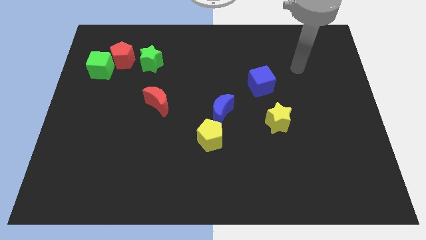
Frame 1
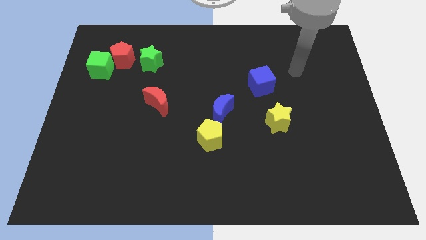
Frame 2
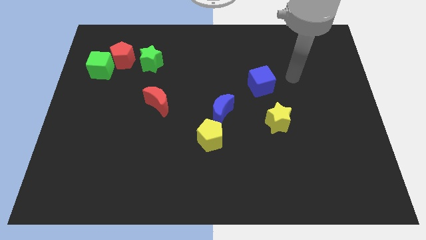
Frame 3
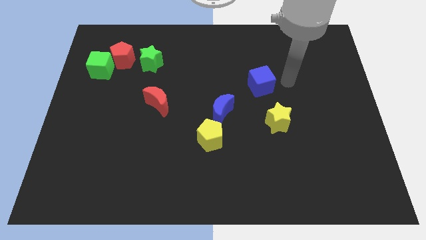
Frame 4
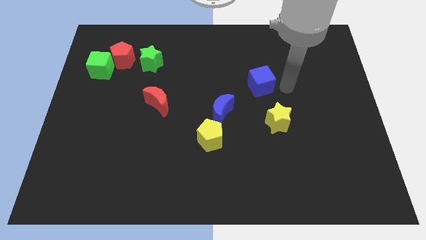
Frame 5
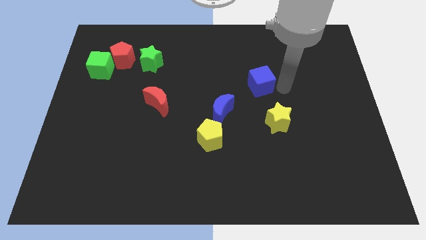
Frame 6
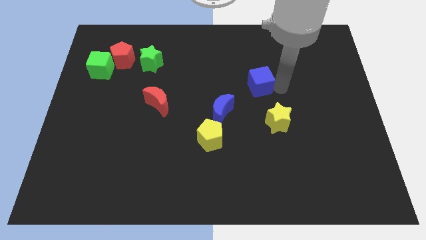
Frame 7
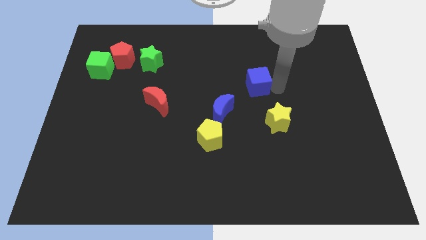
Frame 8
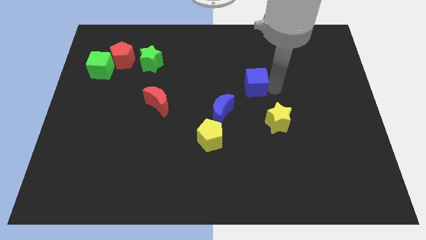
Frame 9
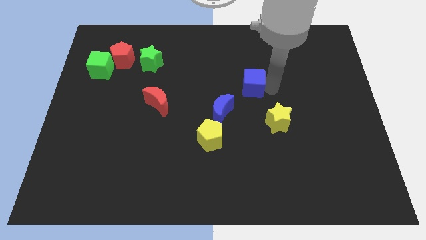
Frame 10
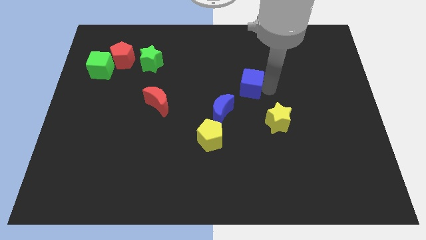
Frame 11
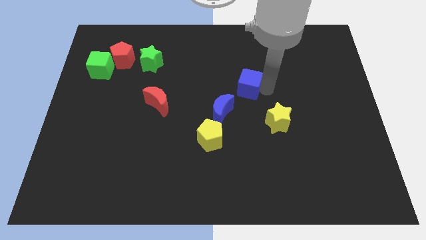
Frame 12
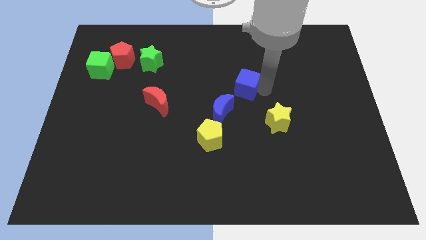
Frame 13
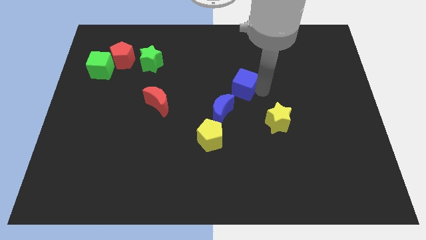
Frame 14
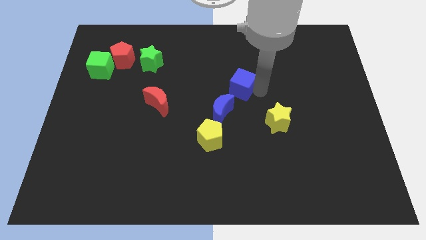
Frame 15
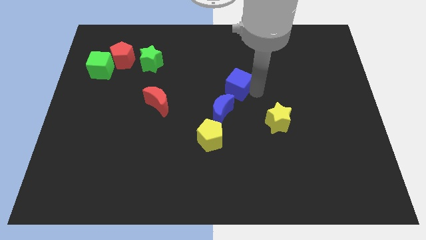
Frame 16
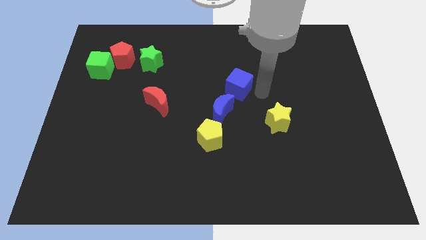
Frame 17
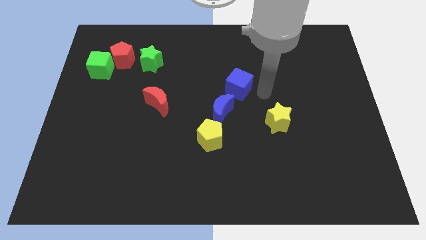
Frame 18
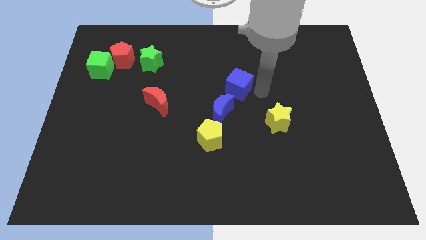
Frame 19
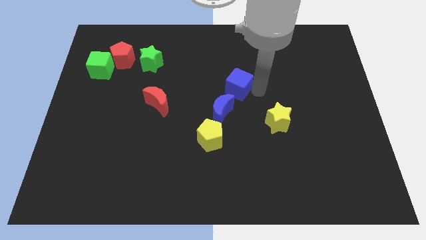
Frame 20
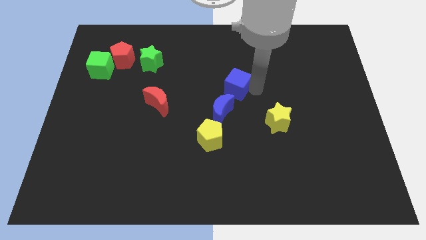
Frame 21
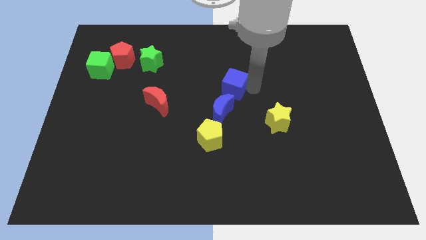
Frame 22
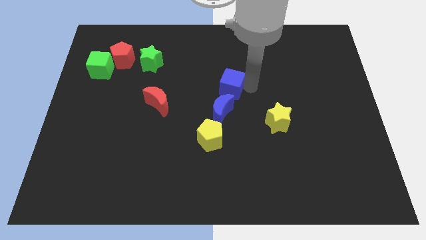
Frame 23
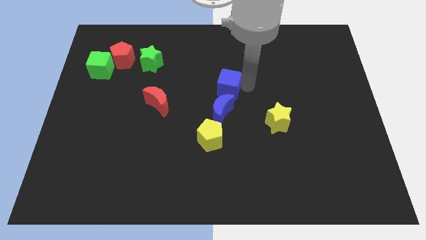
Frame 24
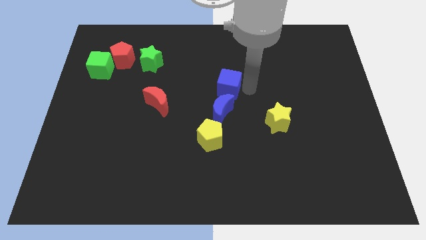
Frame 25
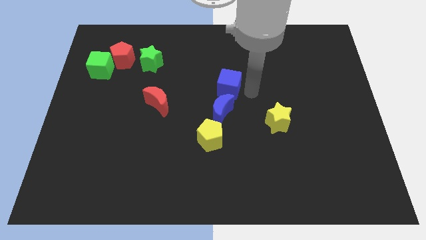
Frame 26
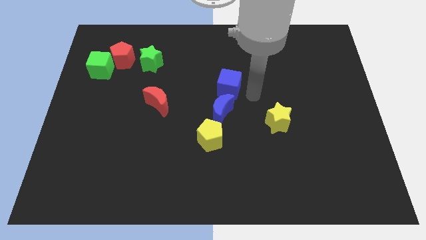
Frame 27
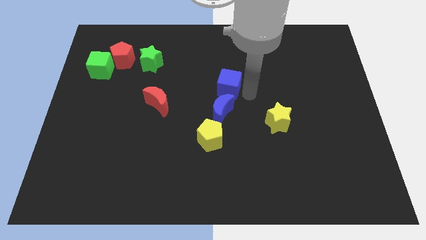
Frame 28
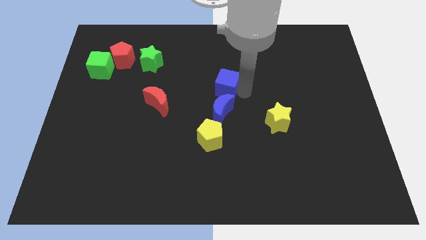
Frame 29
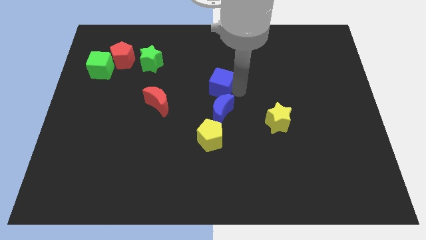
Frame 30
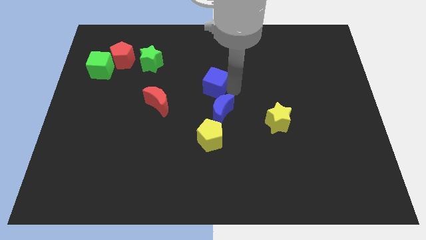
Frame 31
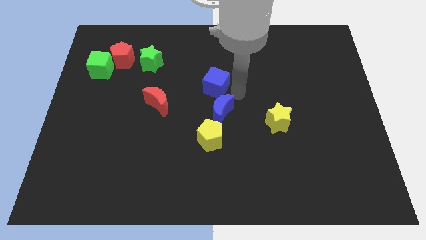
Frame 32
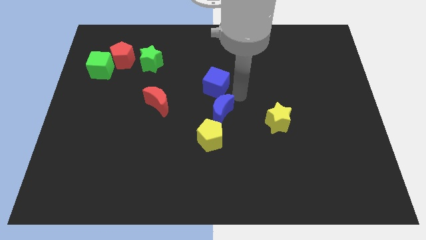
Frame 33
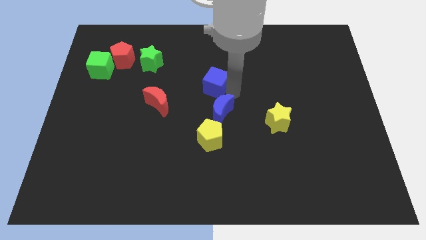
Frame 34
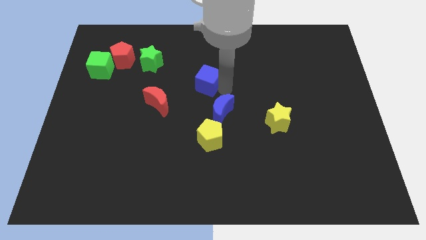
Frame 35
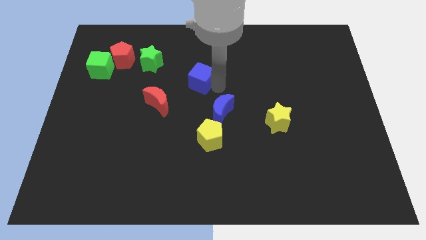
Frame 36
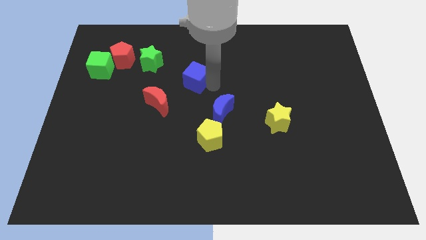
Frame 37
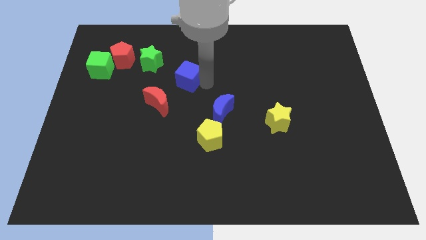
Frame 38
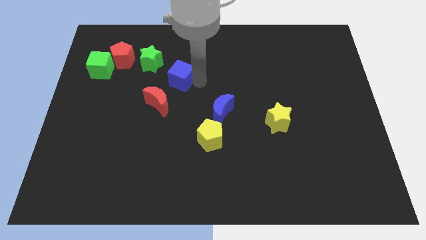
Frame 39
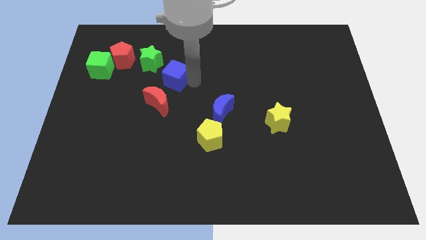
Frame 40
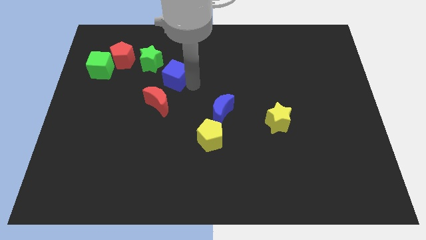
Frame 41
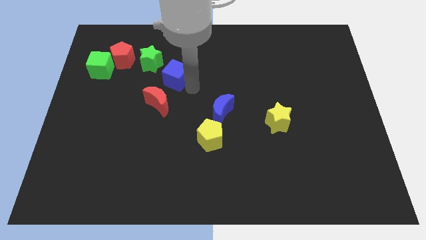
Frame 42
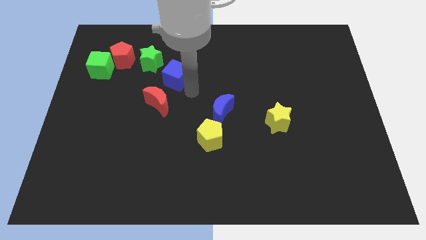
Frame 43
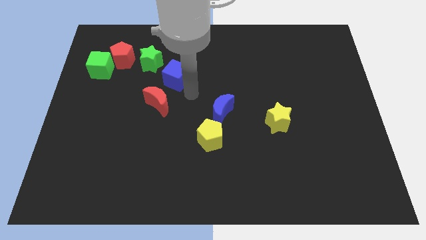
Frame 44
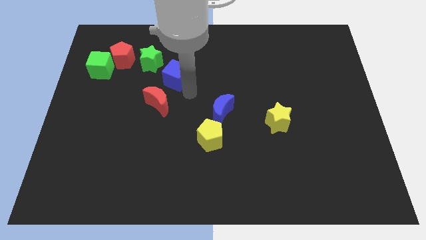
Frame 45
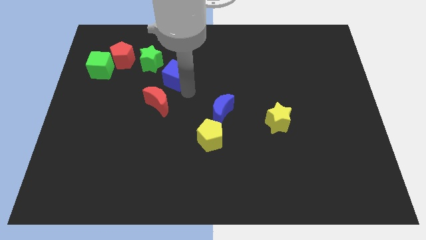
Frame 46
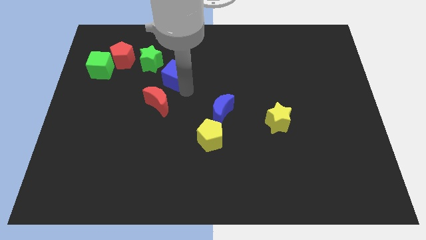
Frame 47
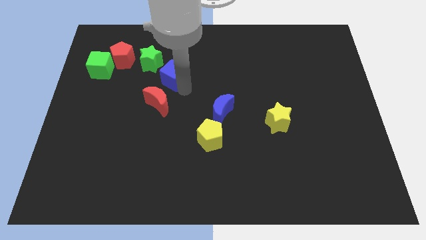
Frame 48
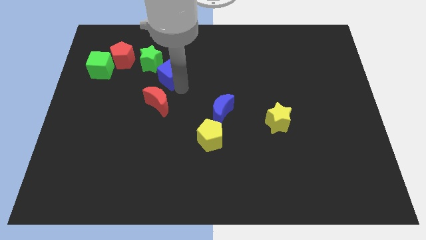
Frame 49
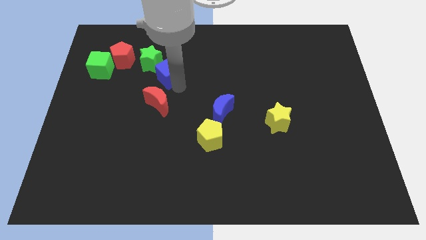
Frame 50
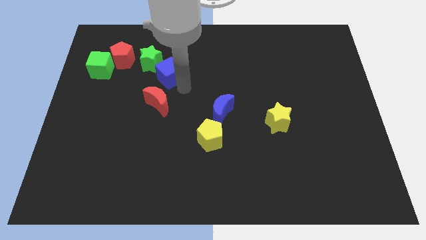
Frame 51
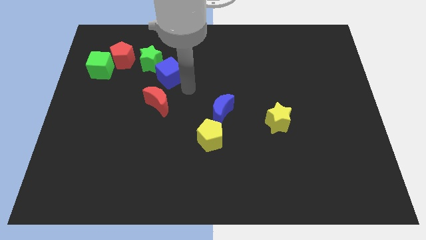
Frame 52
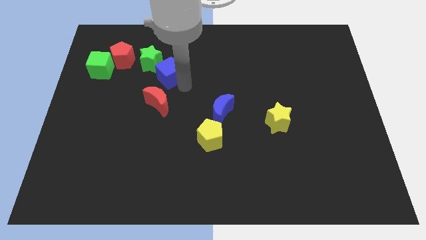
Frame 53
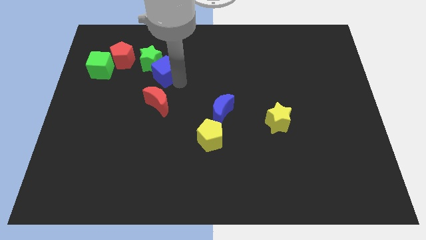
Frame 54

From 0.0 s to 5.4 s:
put the blue cube to the green star

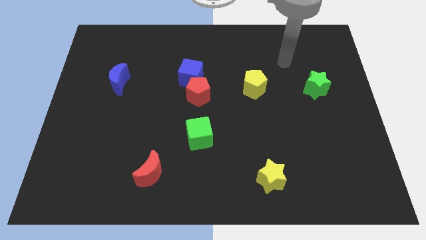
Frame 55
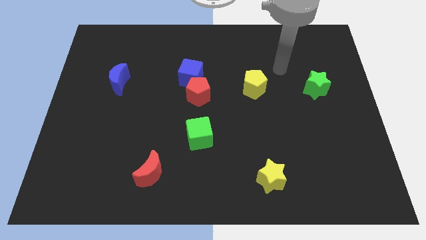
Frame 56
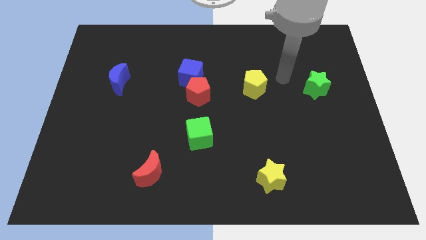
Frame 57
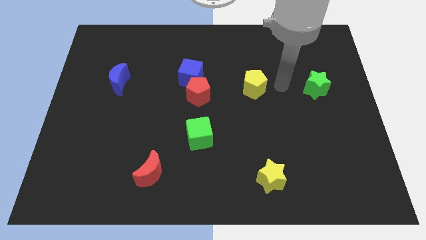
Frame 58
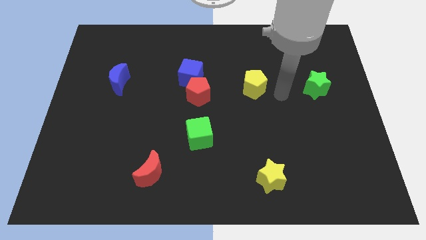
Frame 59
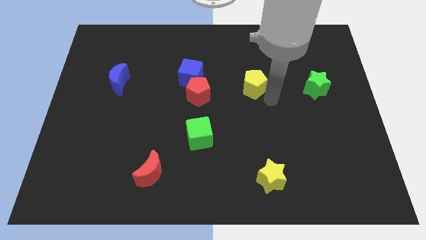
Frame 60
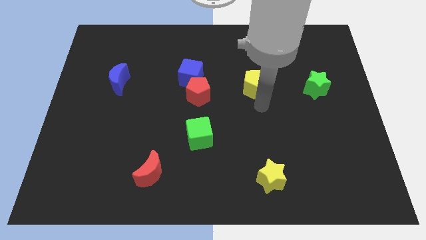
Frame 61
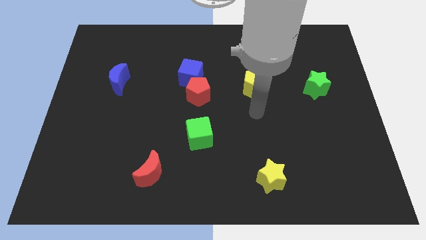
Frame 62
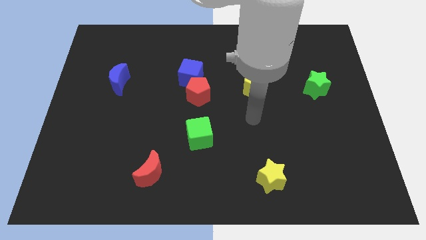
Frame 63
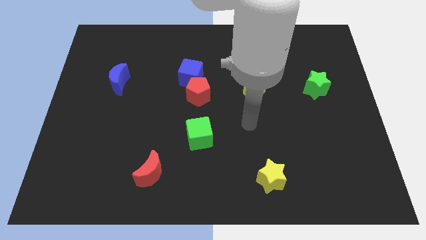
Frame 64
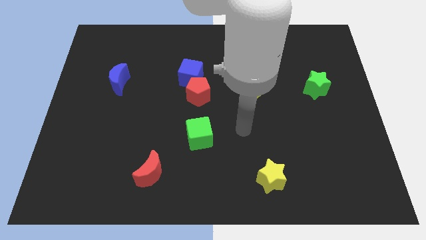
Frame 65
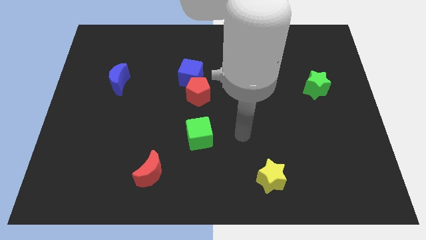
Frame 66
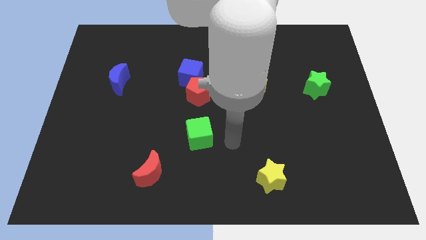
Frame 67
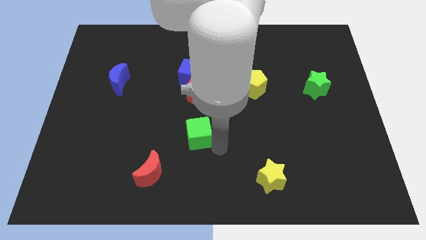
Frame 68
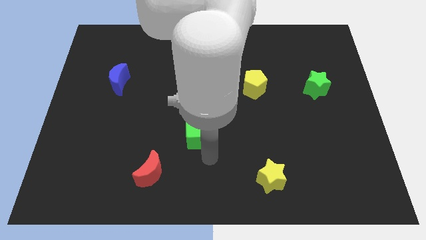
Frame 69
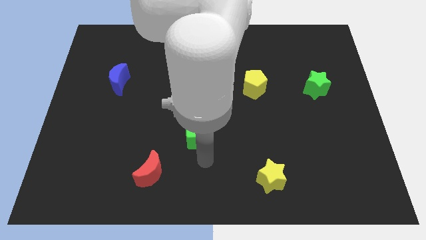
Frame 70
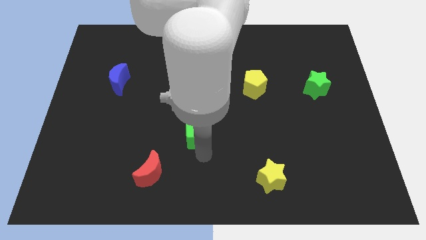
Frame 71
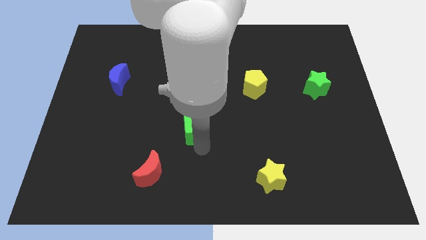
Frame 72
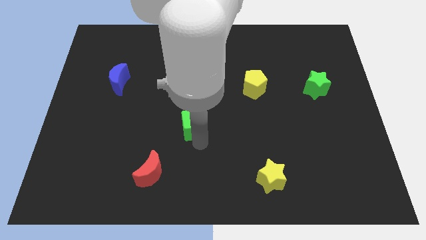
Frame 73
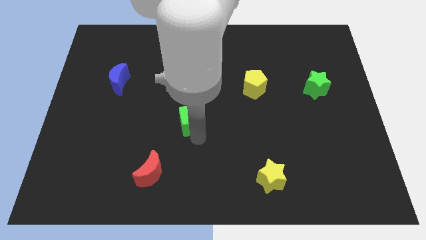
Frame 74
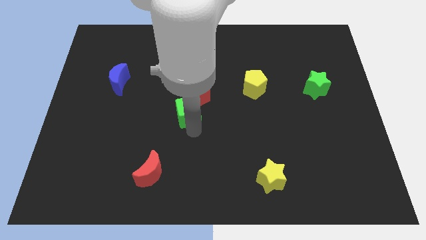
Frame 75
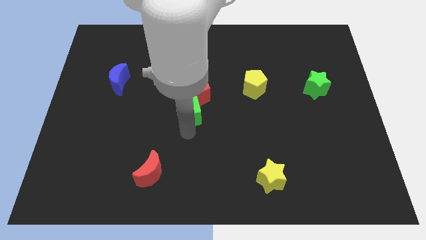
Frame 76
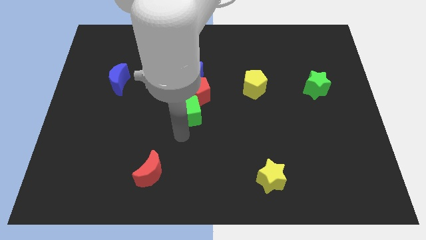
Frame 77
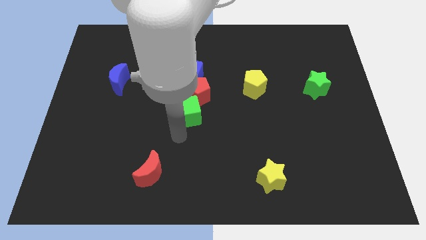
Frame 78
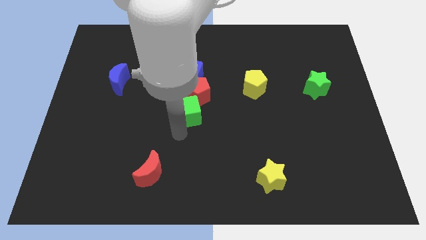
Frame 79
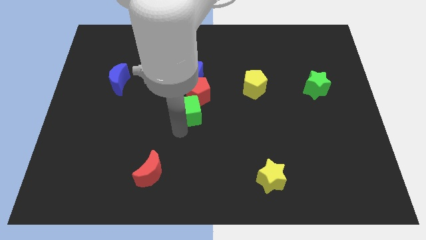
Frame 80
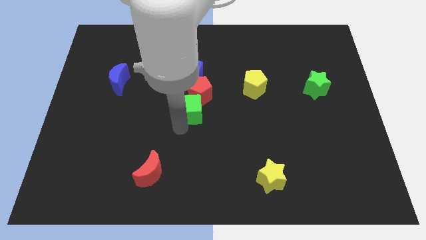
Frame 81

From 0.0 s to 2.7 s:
put the green cube towards the red pentagon

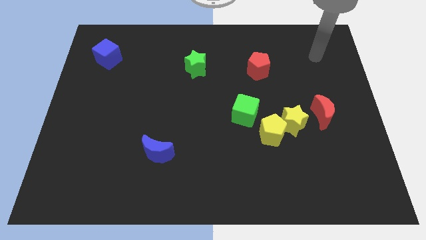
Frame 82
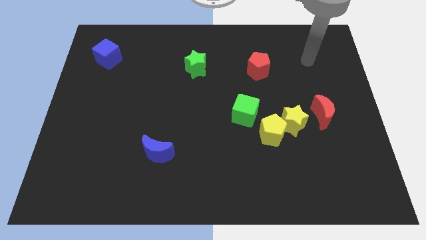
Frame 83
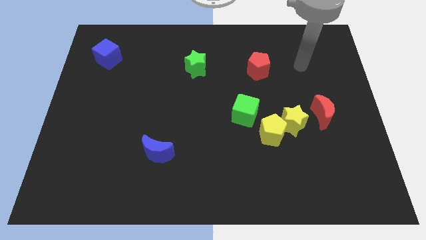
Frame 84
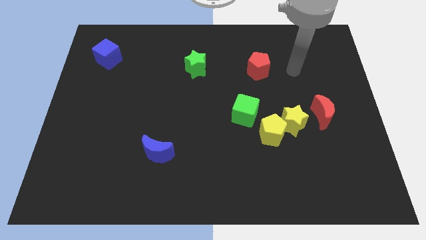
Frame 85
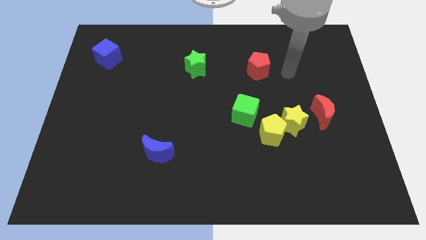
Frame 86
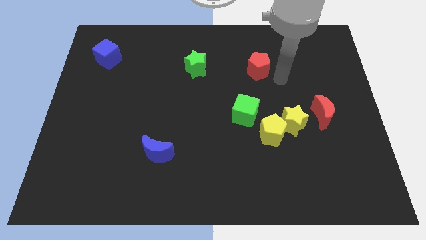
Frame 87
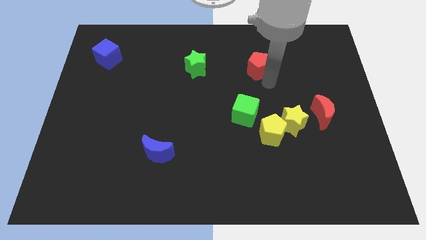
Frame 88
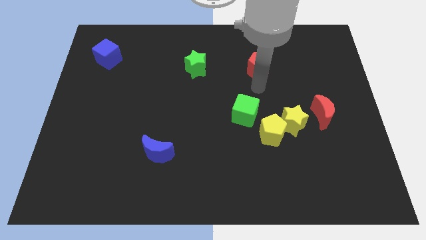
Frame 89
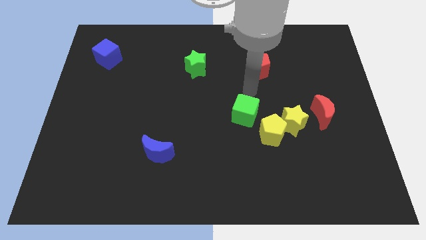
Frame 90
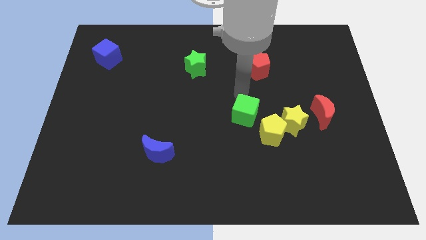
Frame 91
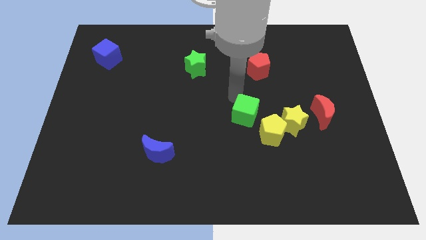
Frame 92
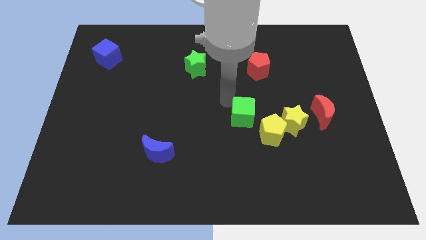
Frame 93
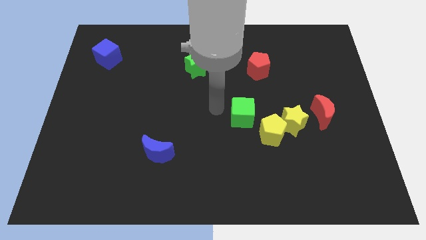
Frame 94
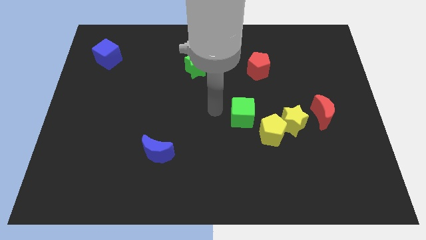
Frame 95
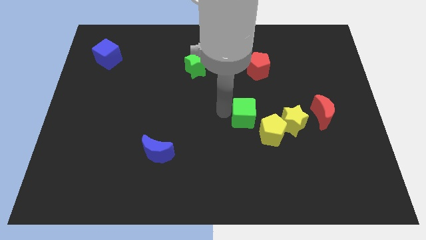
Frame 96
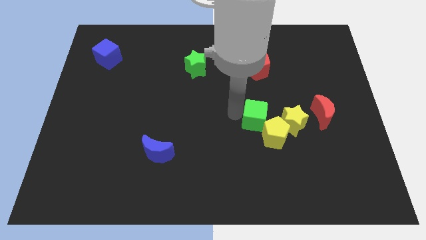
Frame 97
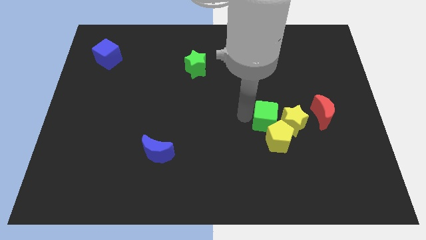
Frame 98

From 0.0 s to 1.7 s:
slide the green cube towards the yellow star
